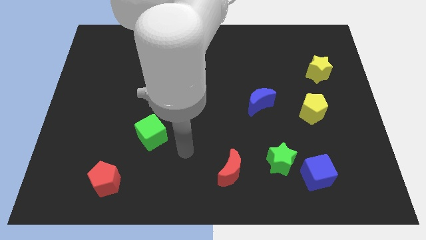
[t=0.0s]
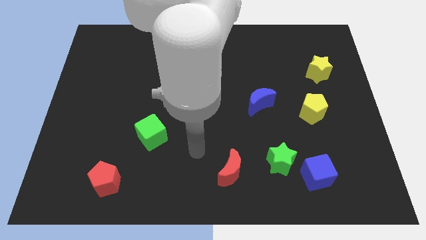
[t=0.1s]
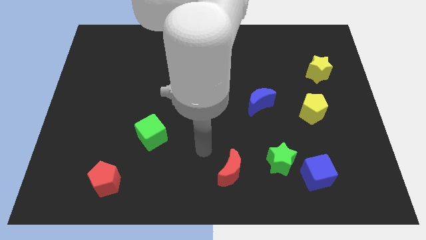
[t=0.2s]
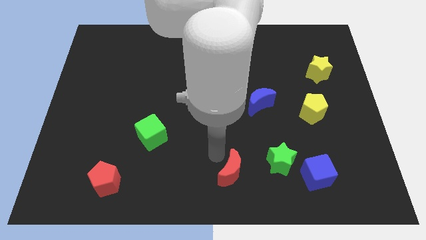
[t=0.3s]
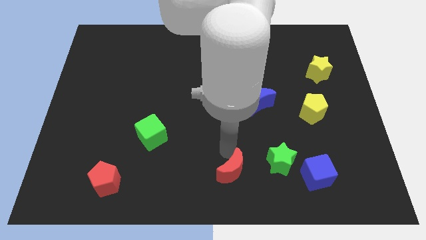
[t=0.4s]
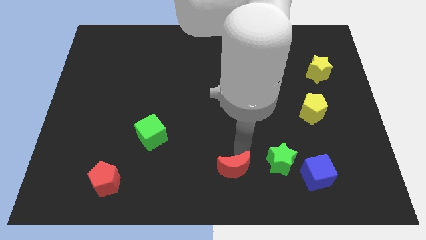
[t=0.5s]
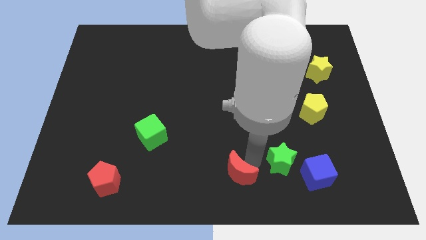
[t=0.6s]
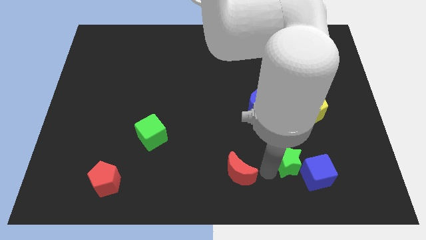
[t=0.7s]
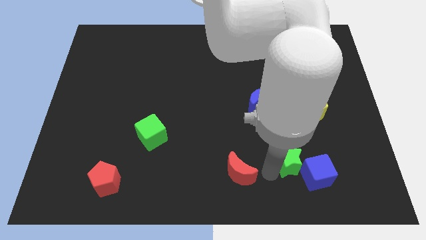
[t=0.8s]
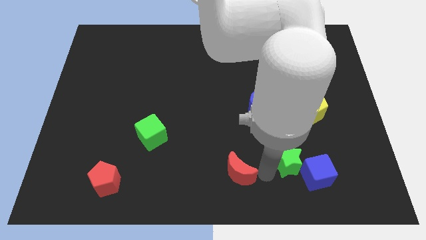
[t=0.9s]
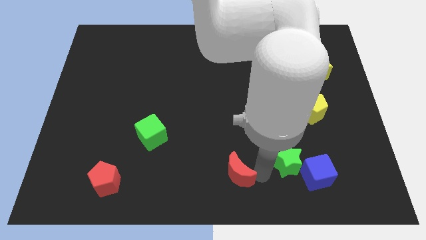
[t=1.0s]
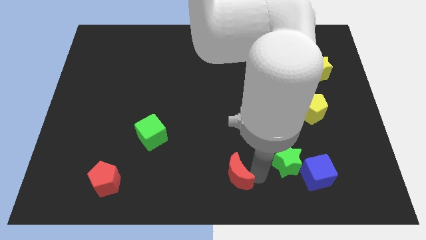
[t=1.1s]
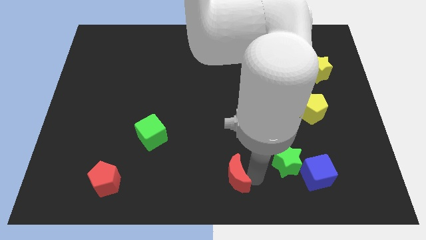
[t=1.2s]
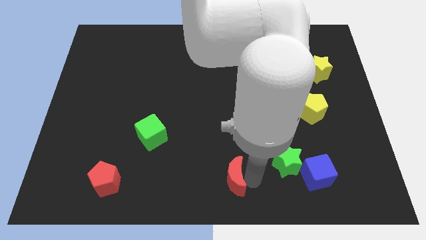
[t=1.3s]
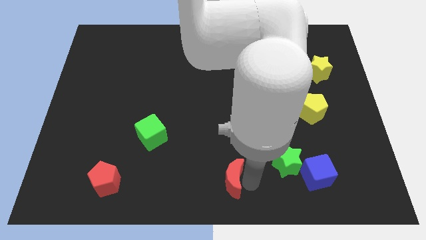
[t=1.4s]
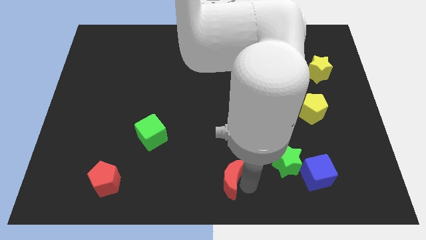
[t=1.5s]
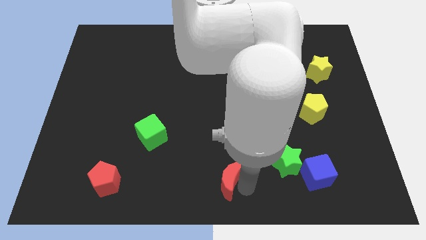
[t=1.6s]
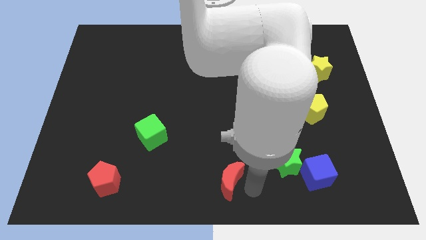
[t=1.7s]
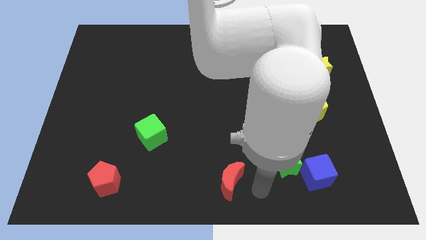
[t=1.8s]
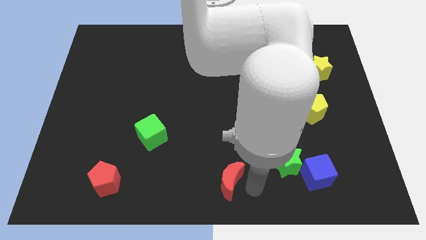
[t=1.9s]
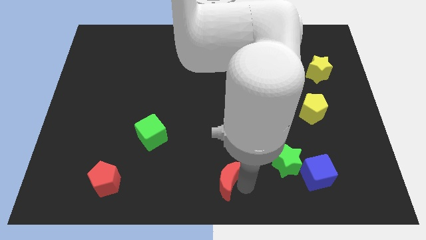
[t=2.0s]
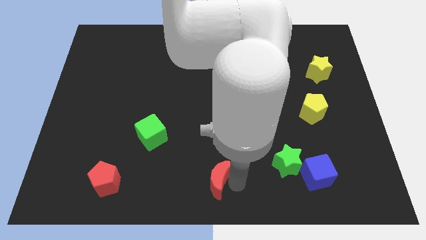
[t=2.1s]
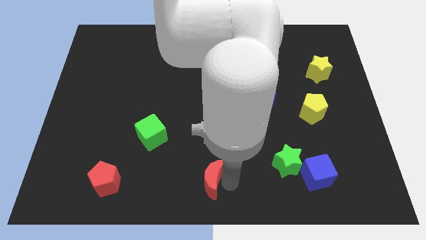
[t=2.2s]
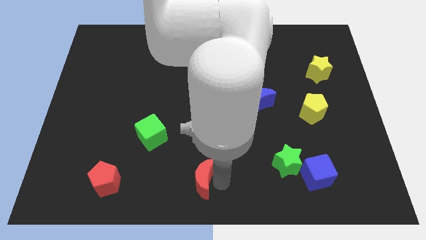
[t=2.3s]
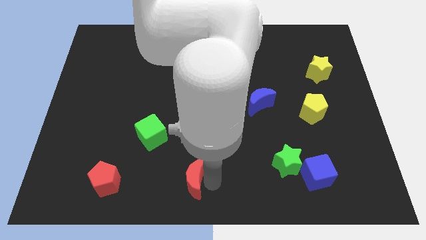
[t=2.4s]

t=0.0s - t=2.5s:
slightly slide the red moon to the left

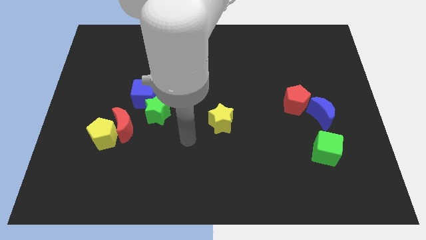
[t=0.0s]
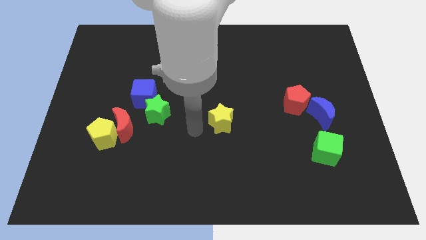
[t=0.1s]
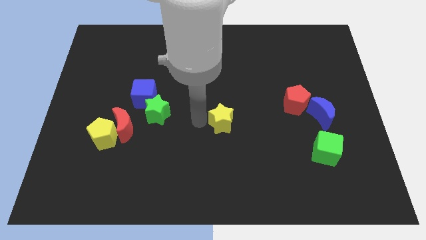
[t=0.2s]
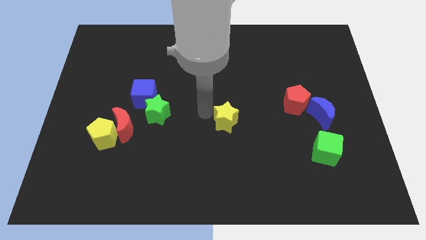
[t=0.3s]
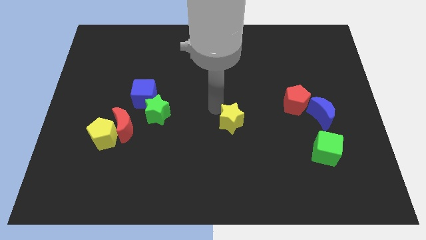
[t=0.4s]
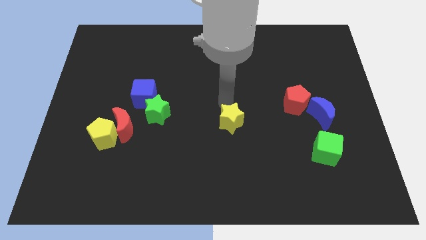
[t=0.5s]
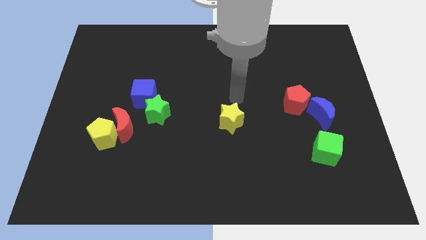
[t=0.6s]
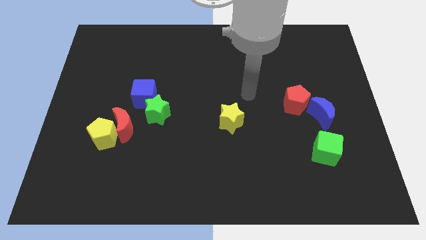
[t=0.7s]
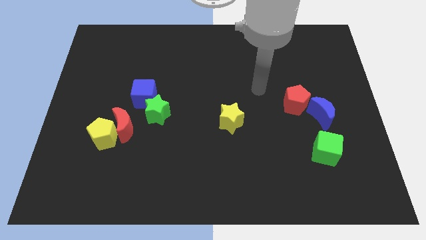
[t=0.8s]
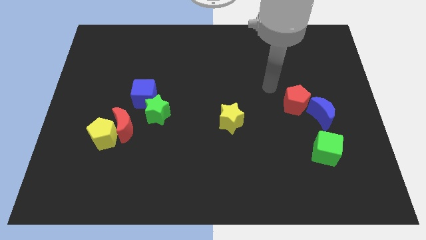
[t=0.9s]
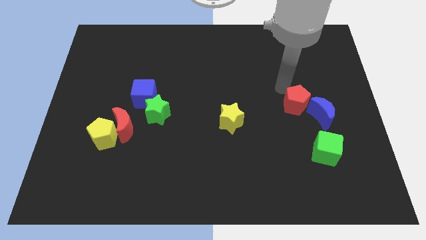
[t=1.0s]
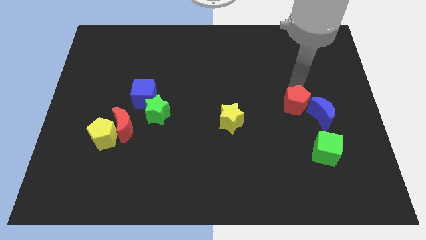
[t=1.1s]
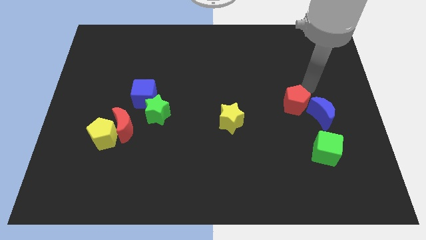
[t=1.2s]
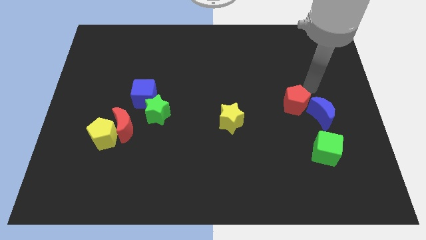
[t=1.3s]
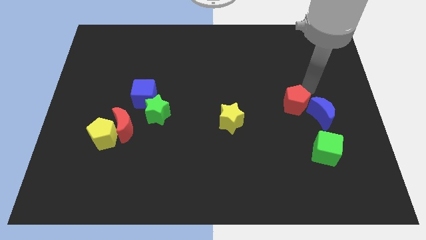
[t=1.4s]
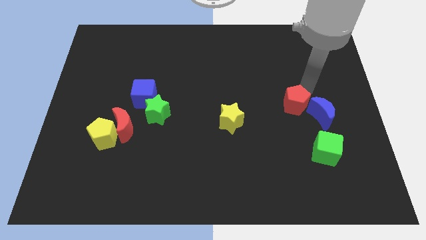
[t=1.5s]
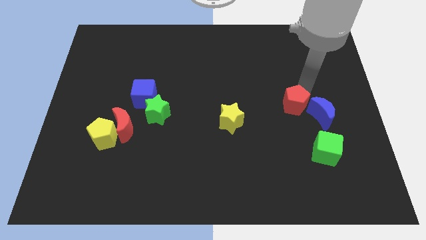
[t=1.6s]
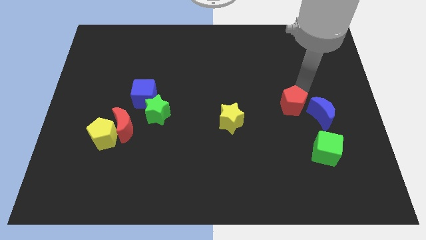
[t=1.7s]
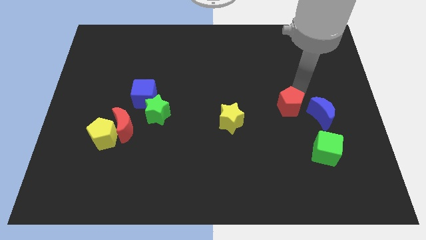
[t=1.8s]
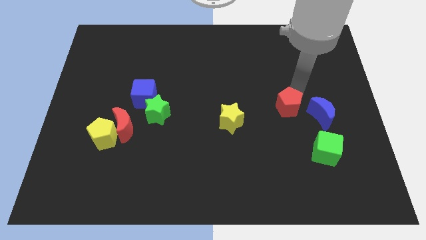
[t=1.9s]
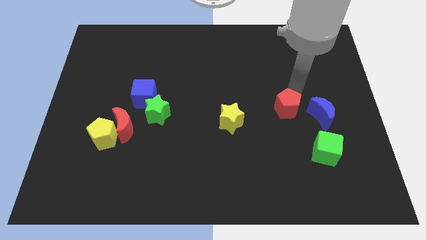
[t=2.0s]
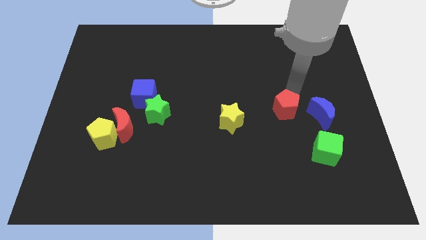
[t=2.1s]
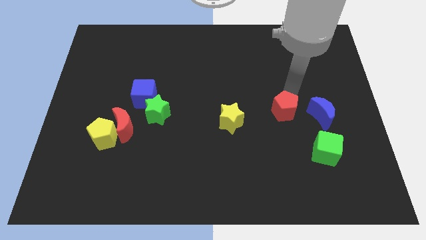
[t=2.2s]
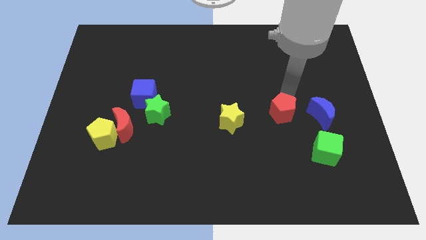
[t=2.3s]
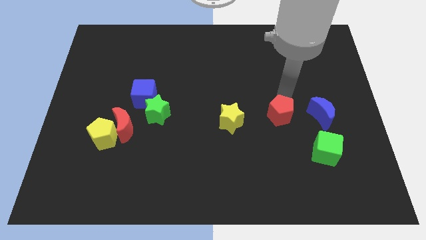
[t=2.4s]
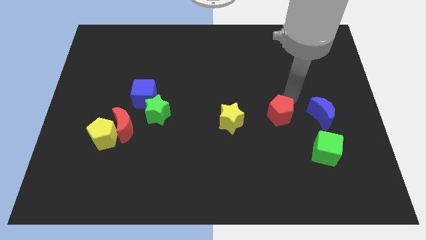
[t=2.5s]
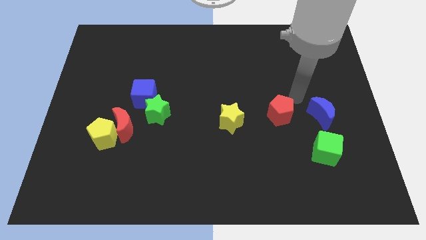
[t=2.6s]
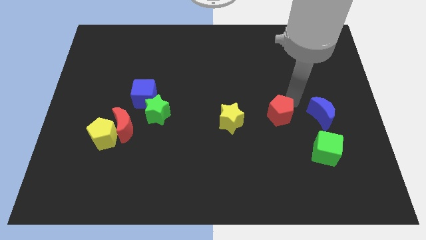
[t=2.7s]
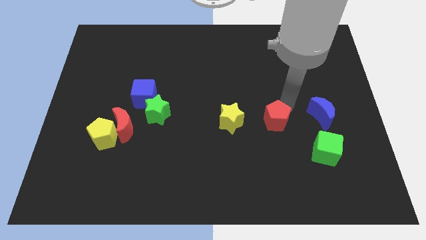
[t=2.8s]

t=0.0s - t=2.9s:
slide the red pentagon slightly down and then to the left

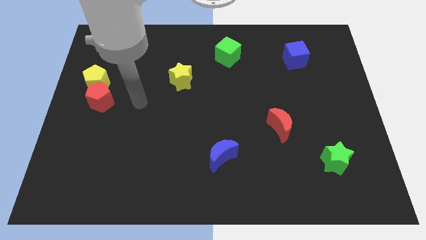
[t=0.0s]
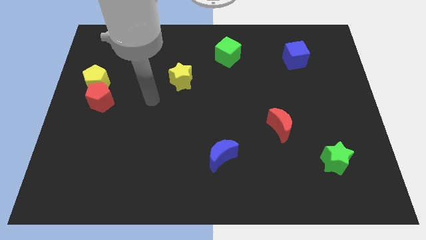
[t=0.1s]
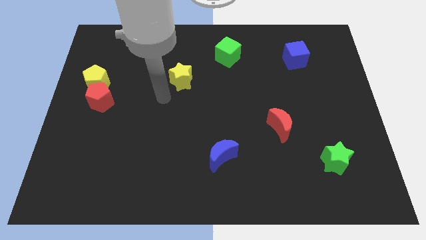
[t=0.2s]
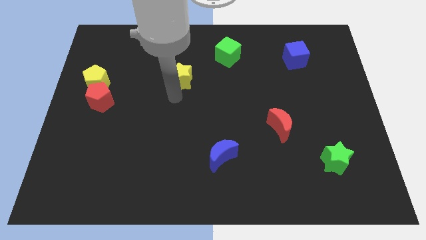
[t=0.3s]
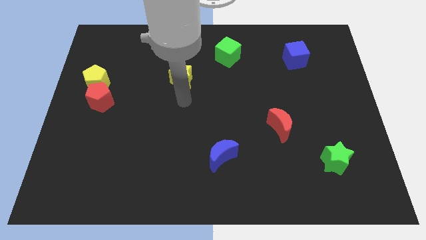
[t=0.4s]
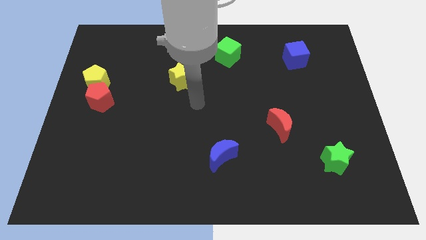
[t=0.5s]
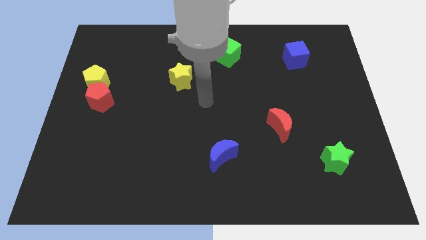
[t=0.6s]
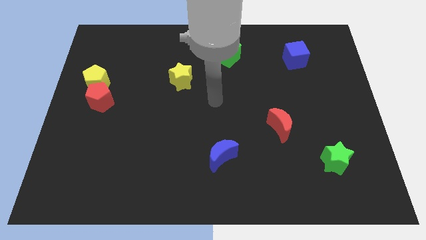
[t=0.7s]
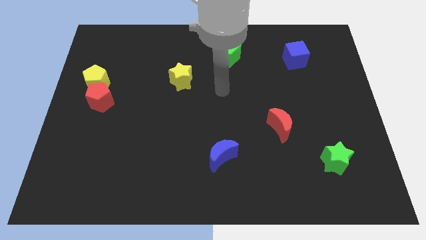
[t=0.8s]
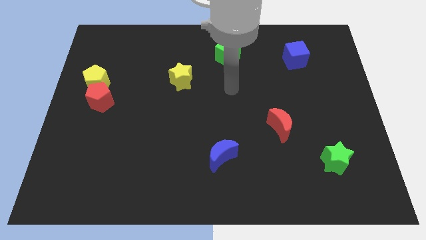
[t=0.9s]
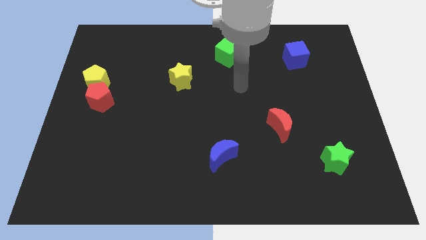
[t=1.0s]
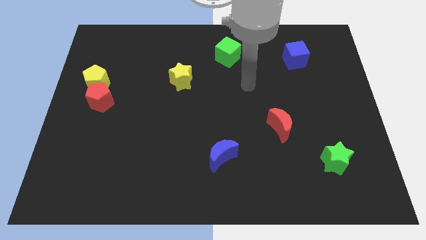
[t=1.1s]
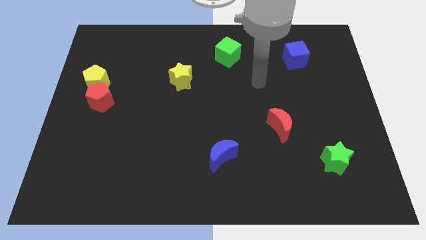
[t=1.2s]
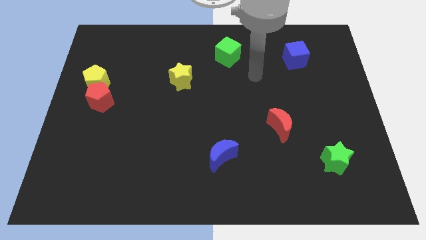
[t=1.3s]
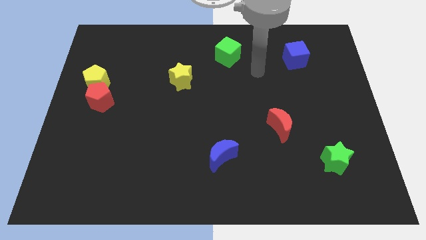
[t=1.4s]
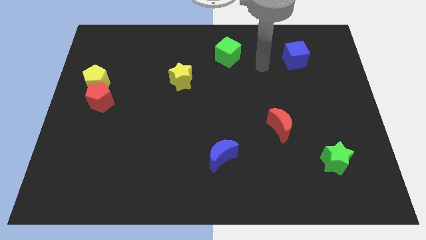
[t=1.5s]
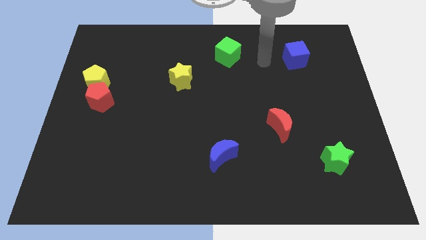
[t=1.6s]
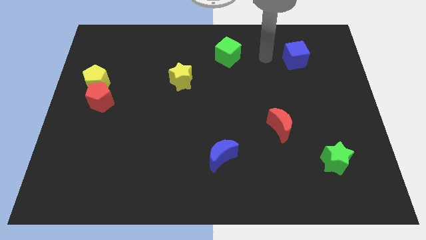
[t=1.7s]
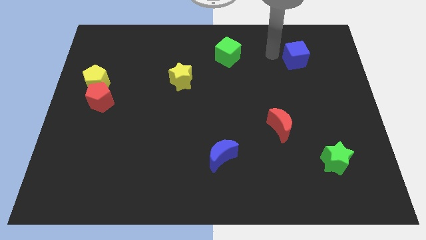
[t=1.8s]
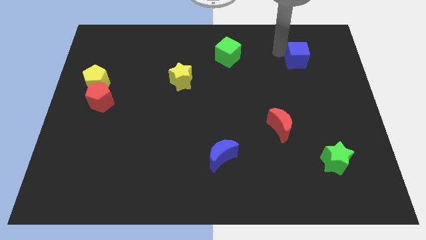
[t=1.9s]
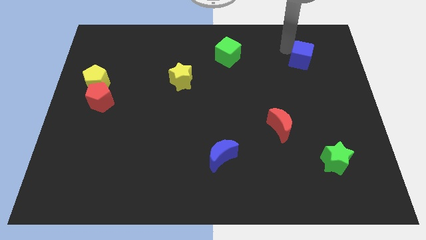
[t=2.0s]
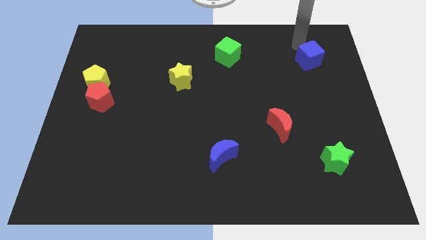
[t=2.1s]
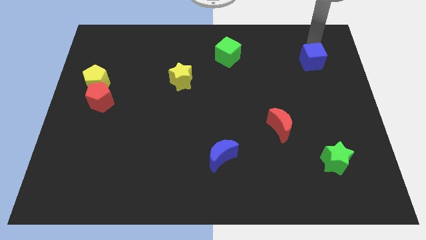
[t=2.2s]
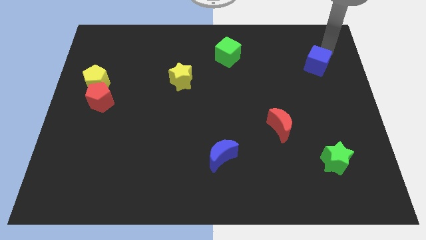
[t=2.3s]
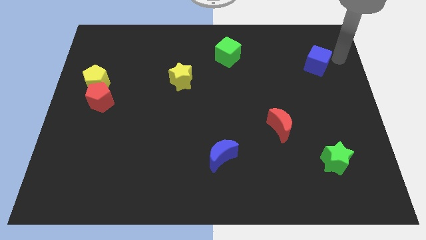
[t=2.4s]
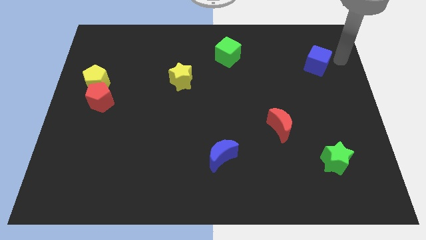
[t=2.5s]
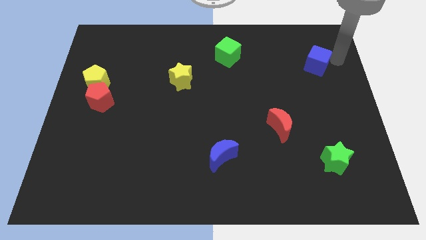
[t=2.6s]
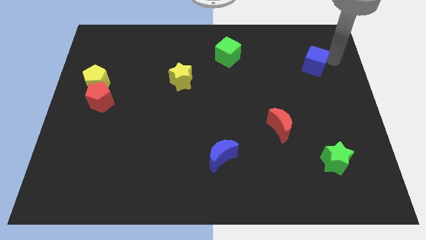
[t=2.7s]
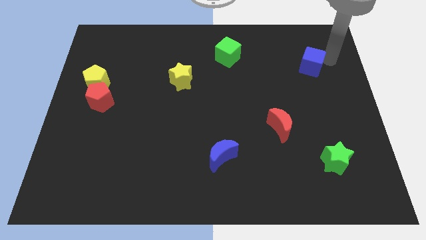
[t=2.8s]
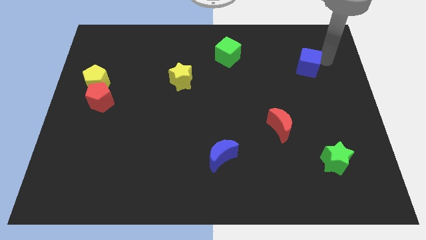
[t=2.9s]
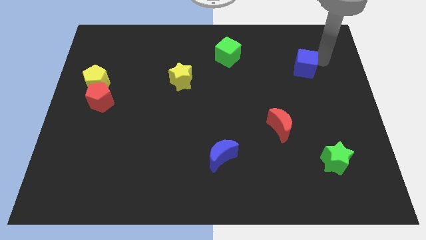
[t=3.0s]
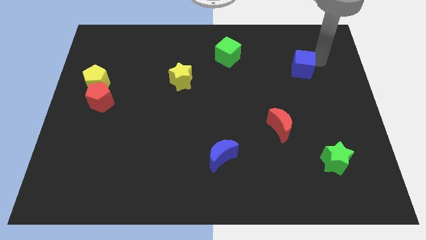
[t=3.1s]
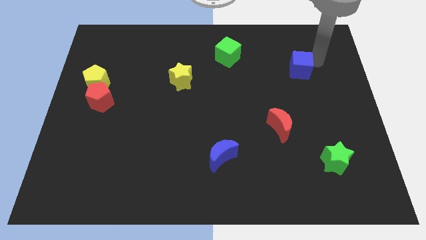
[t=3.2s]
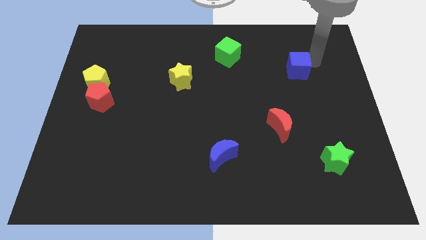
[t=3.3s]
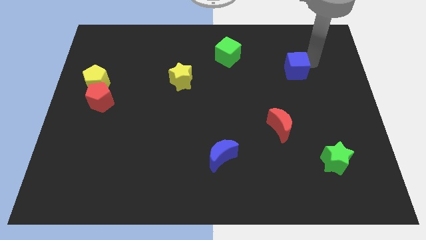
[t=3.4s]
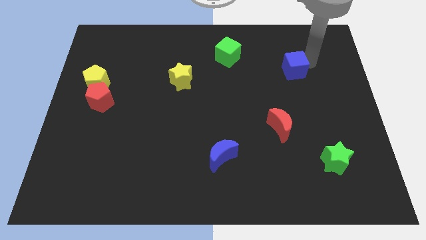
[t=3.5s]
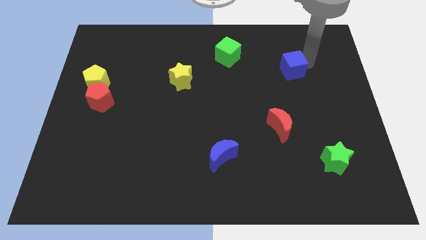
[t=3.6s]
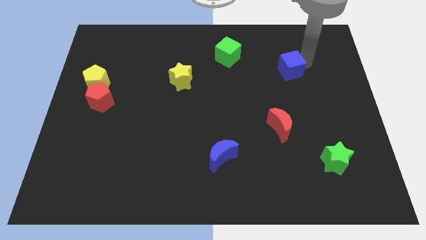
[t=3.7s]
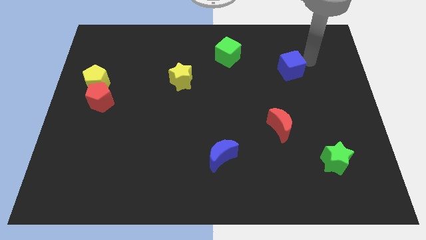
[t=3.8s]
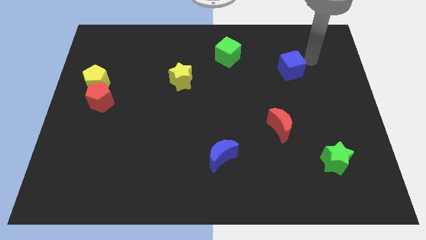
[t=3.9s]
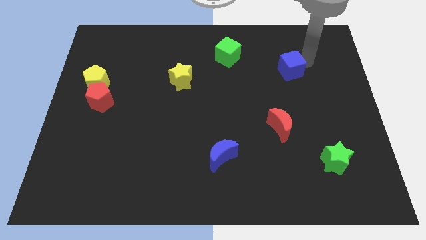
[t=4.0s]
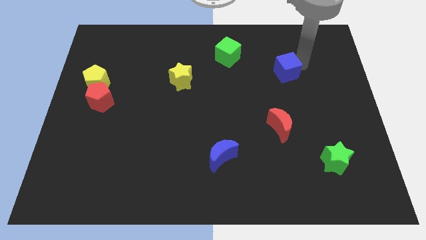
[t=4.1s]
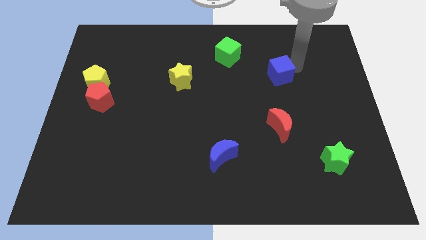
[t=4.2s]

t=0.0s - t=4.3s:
move the blue cube a bit downwards and to the left diagonally
